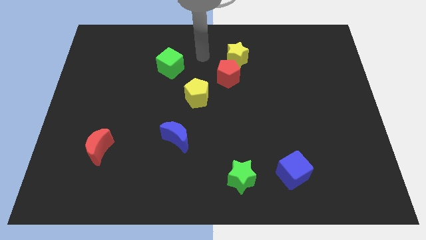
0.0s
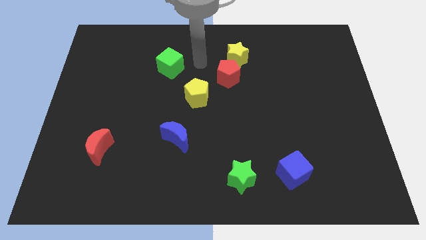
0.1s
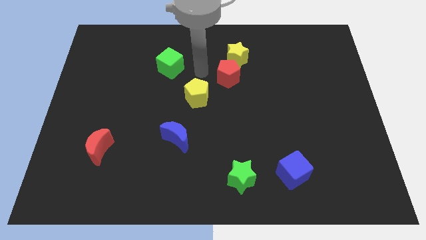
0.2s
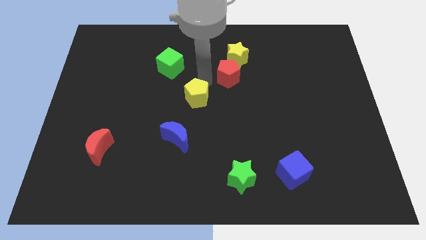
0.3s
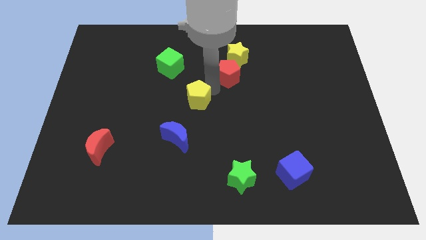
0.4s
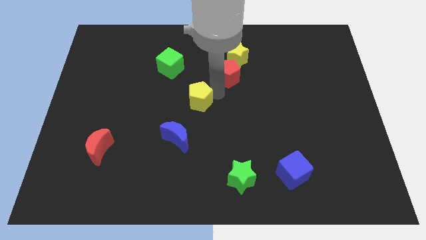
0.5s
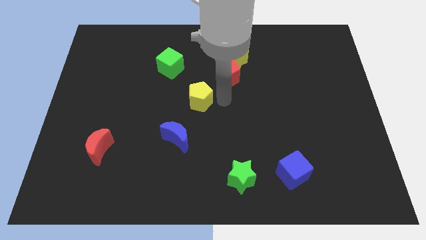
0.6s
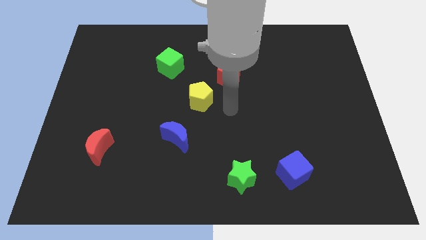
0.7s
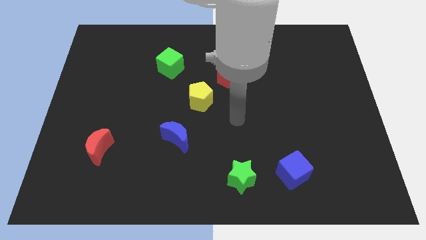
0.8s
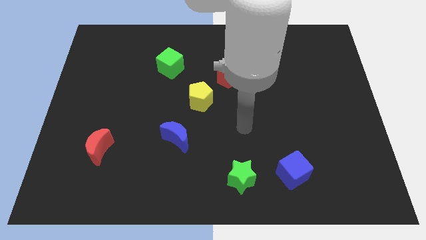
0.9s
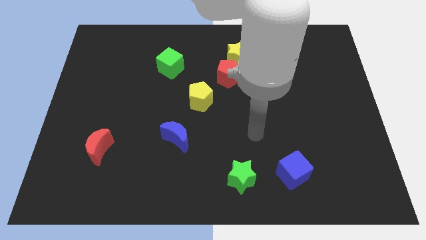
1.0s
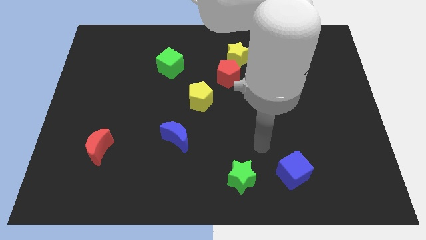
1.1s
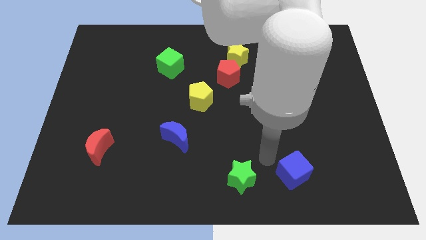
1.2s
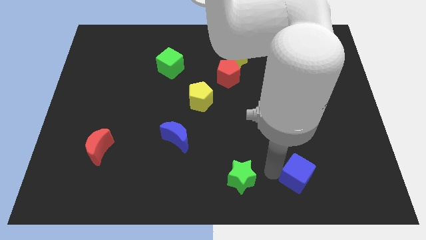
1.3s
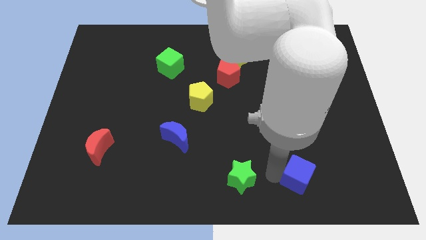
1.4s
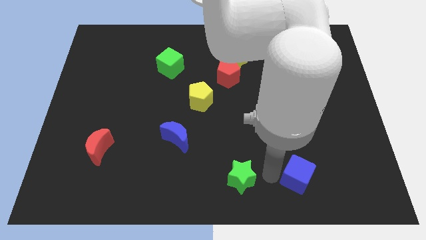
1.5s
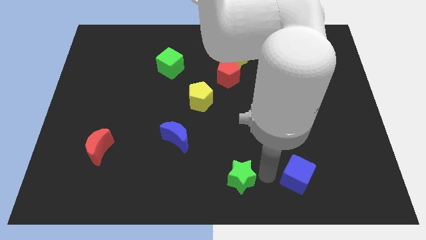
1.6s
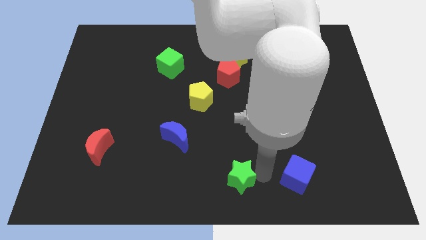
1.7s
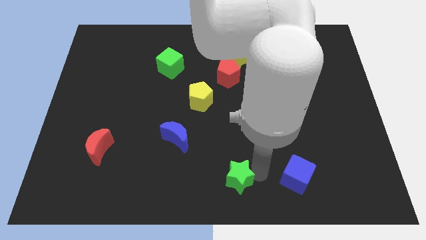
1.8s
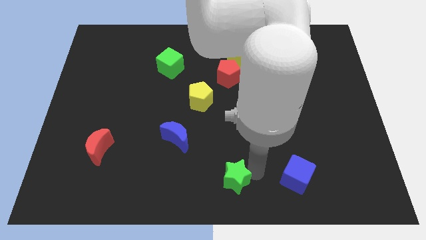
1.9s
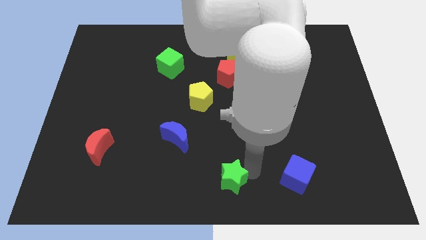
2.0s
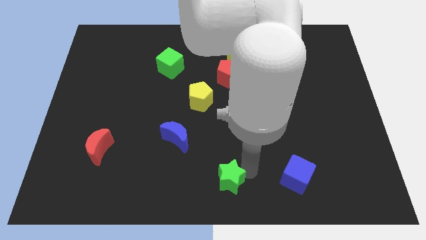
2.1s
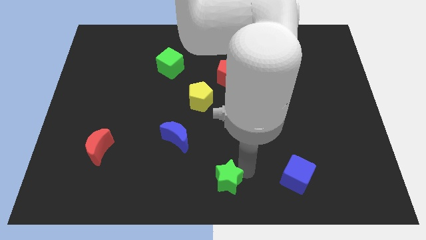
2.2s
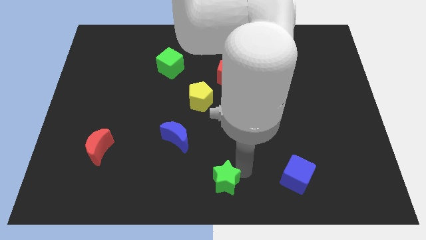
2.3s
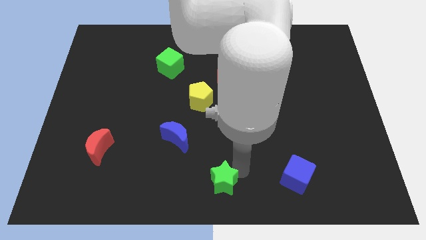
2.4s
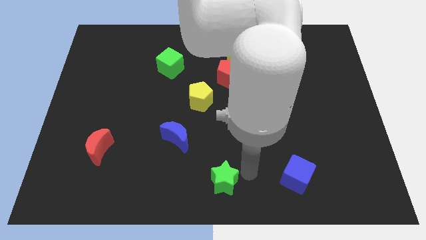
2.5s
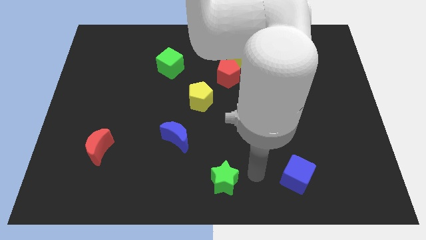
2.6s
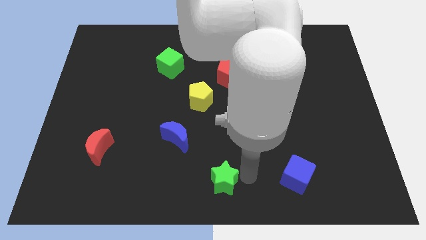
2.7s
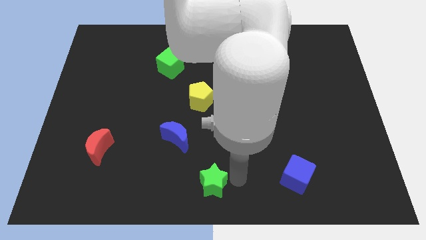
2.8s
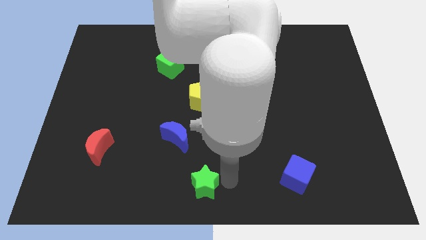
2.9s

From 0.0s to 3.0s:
push the green star to the left a little bit

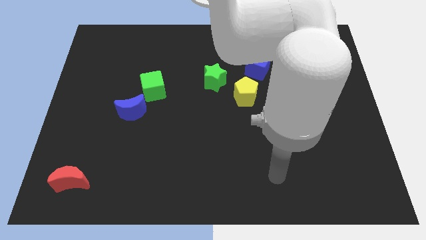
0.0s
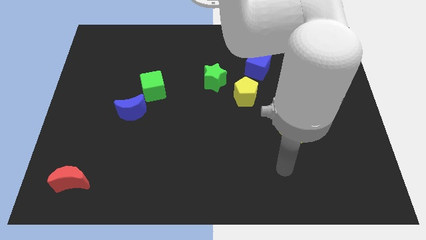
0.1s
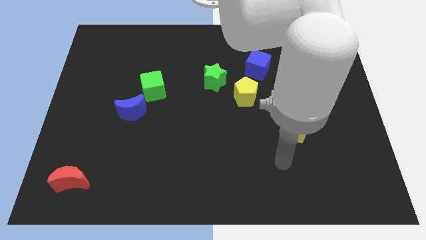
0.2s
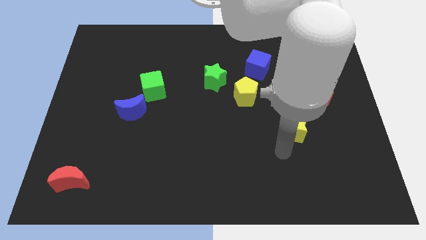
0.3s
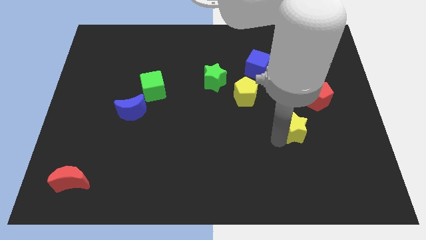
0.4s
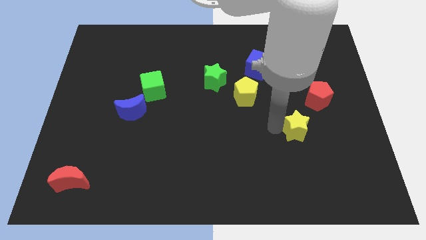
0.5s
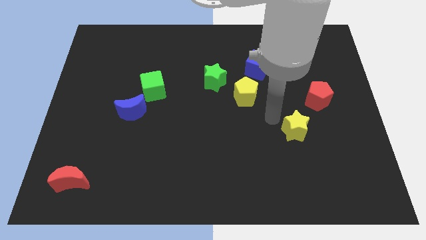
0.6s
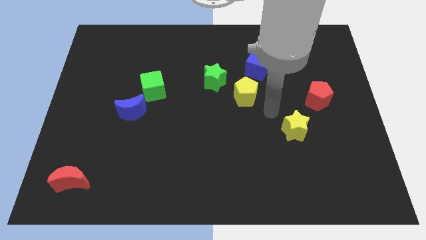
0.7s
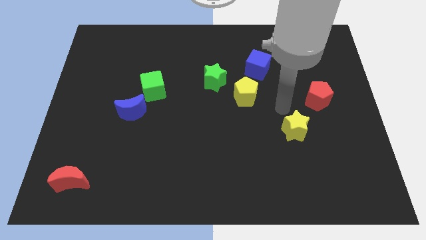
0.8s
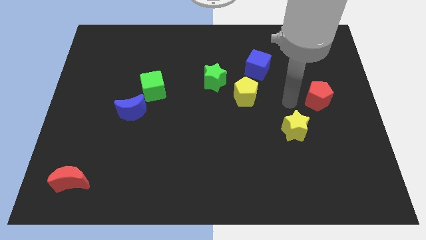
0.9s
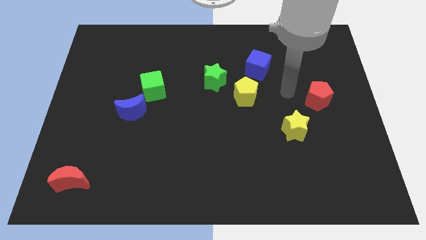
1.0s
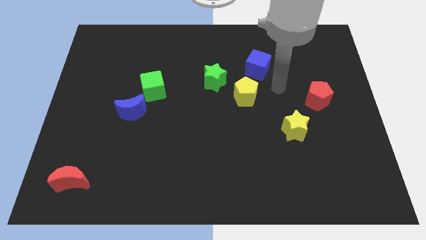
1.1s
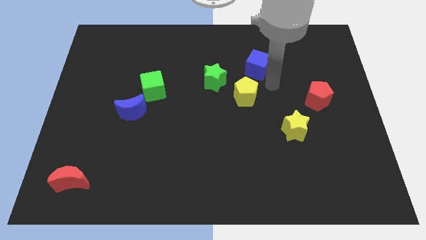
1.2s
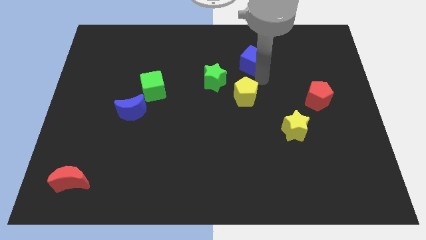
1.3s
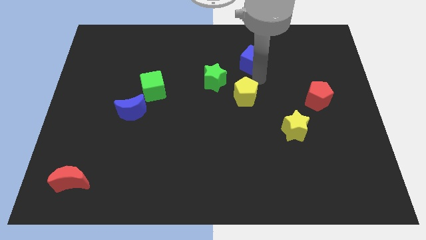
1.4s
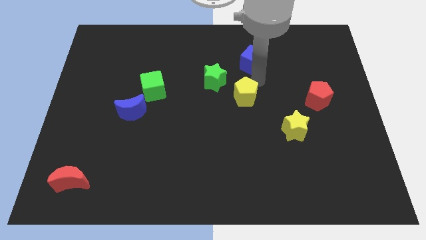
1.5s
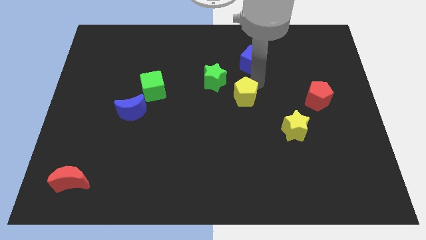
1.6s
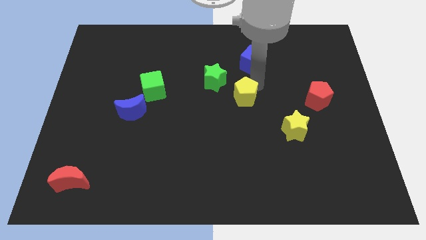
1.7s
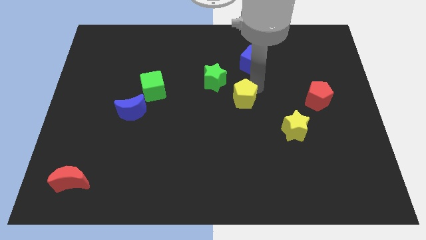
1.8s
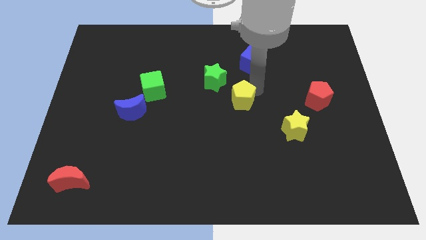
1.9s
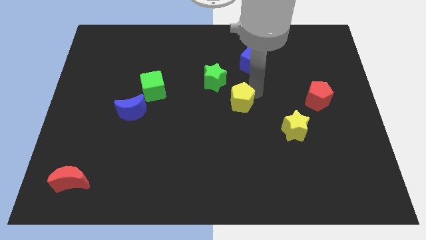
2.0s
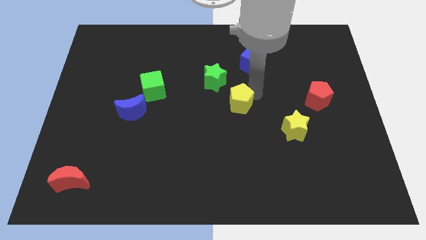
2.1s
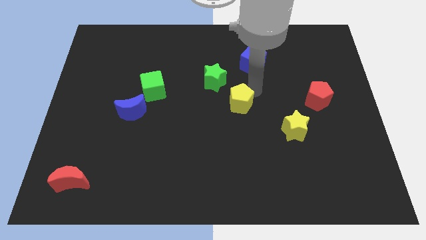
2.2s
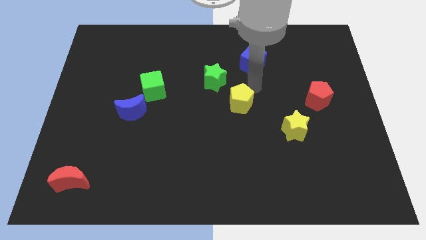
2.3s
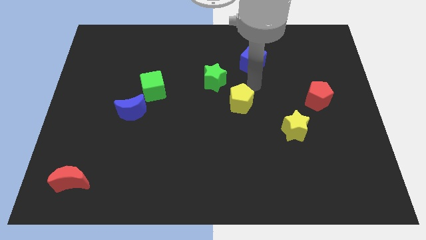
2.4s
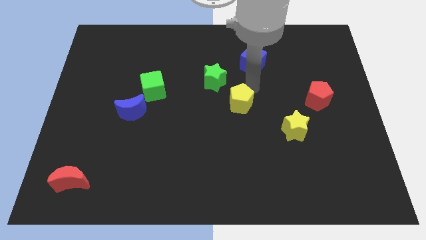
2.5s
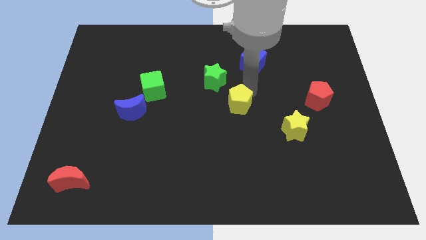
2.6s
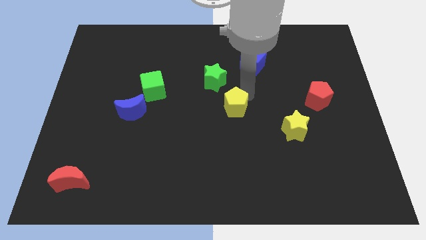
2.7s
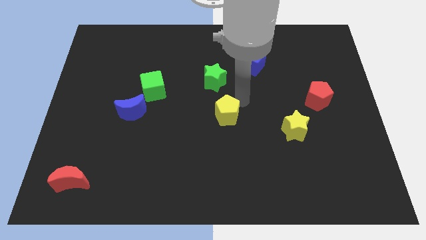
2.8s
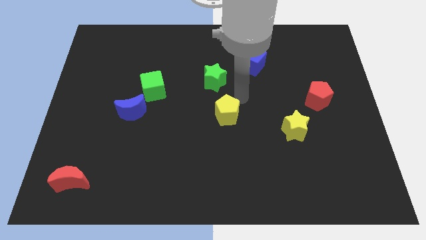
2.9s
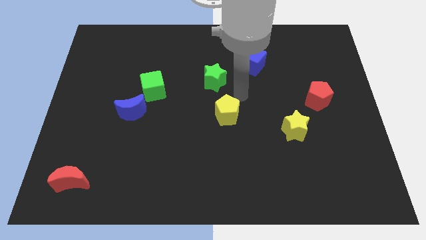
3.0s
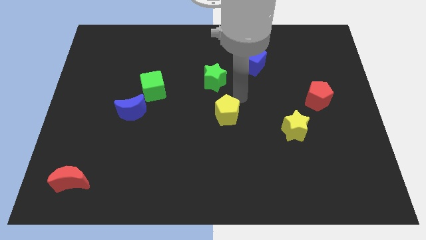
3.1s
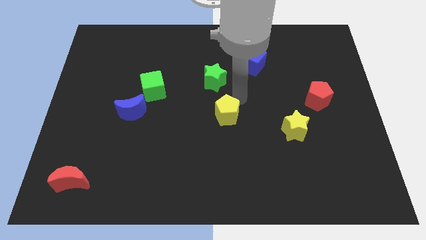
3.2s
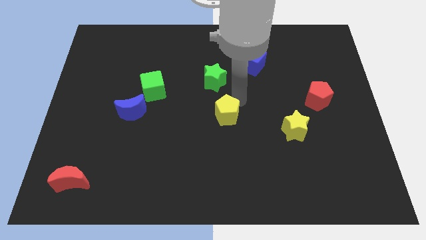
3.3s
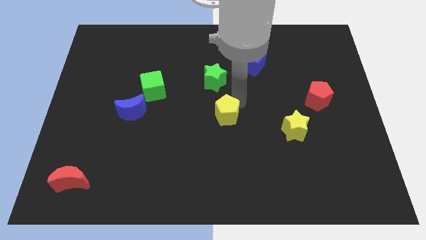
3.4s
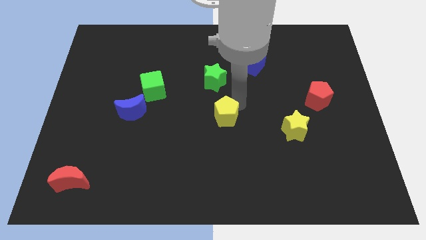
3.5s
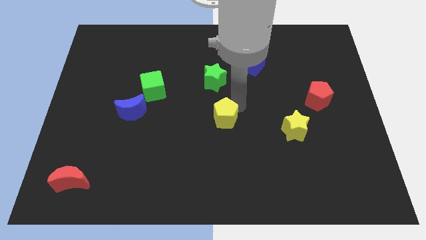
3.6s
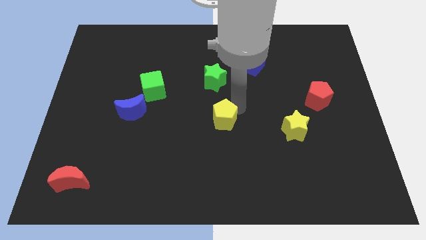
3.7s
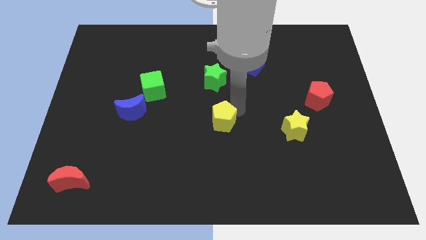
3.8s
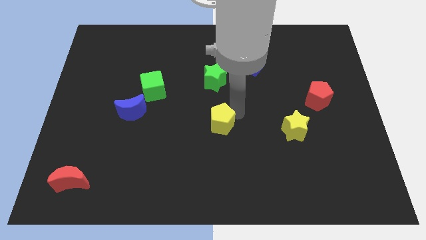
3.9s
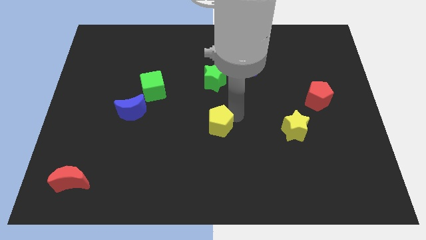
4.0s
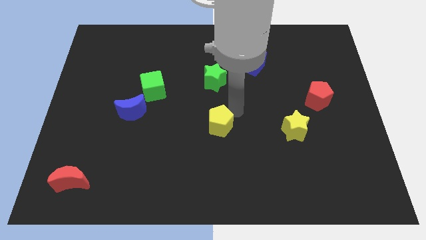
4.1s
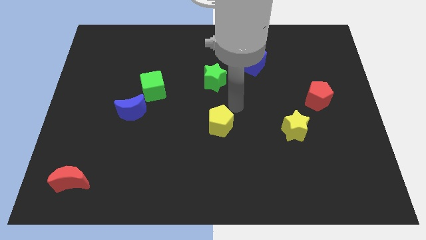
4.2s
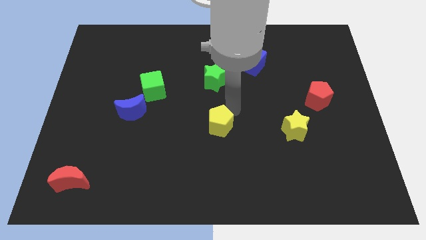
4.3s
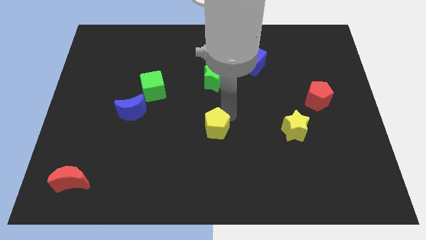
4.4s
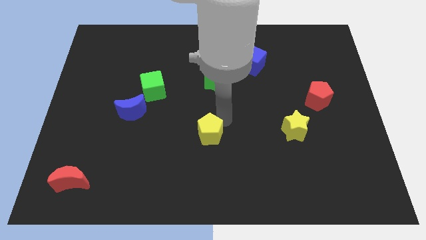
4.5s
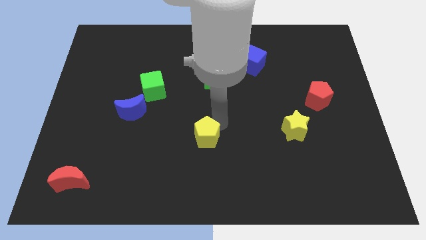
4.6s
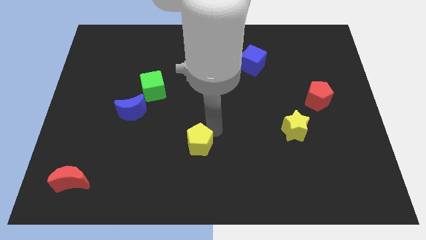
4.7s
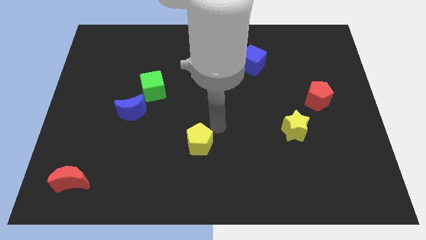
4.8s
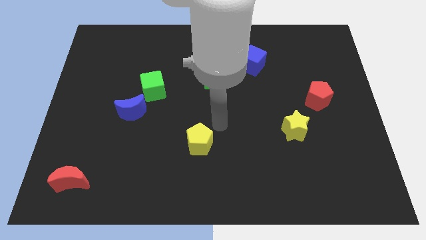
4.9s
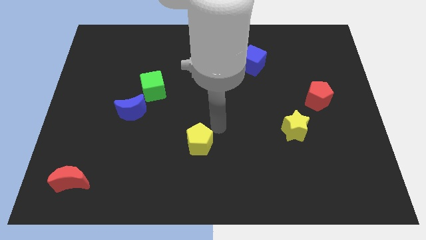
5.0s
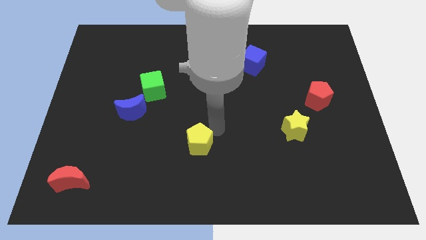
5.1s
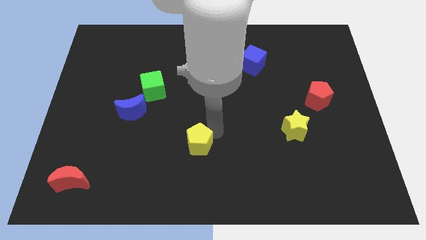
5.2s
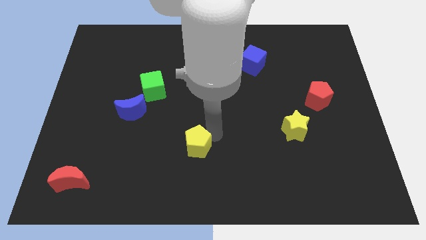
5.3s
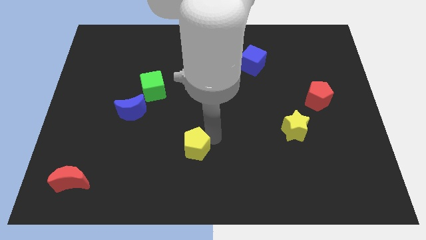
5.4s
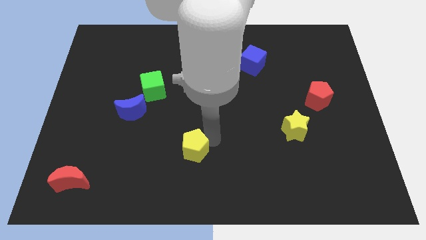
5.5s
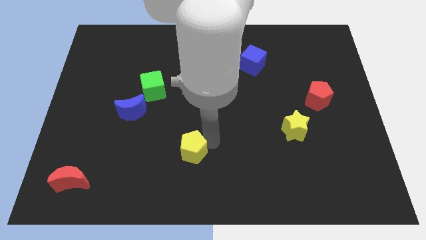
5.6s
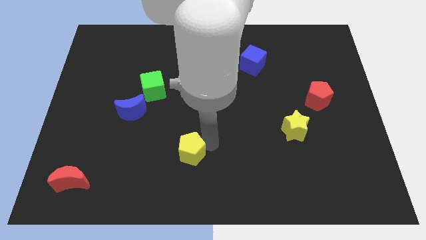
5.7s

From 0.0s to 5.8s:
slide the yellow pentagon diagonally down and to the left
